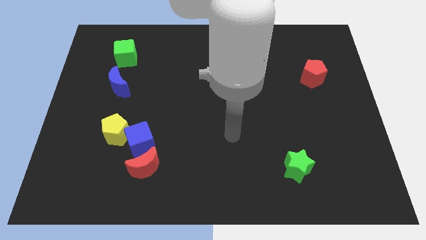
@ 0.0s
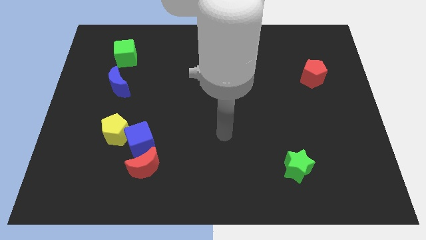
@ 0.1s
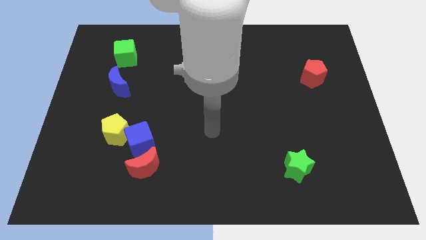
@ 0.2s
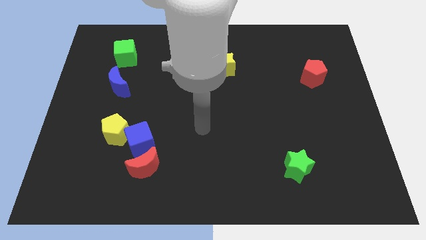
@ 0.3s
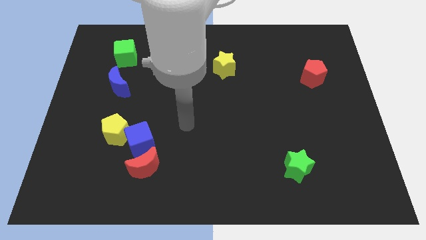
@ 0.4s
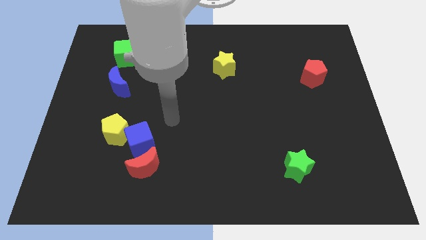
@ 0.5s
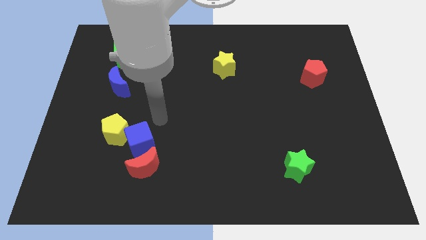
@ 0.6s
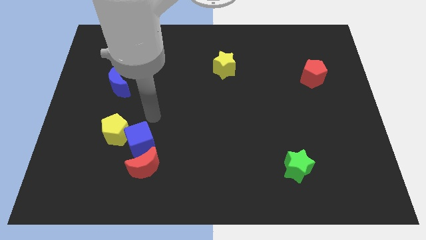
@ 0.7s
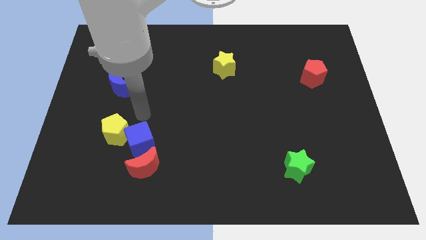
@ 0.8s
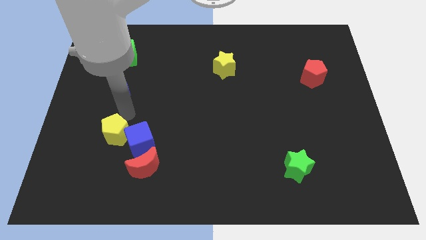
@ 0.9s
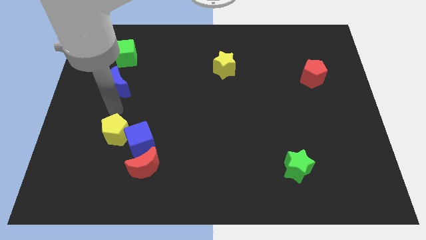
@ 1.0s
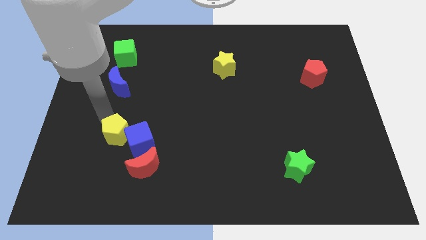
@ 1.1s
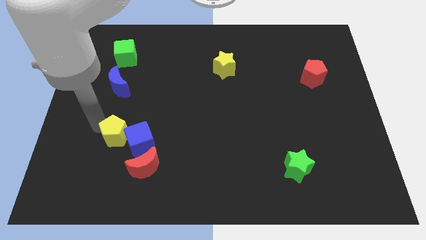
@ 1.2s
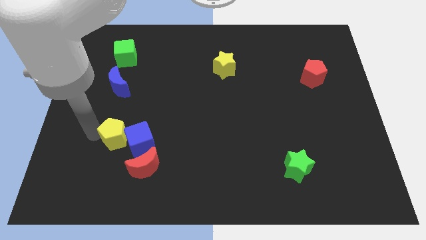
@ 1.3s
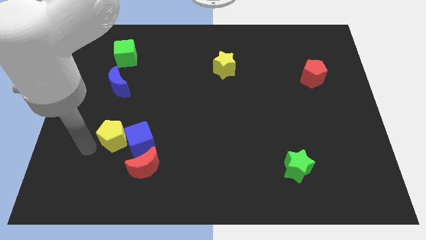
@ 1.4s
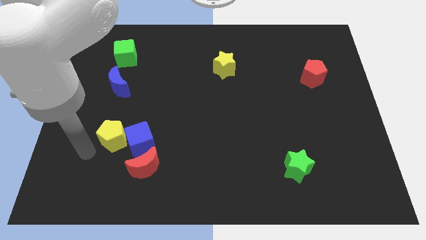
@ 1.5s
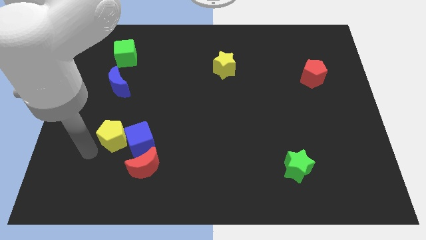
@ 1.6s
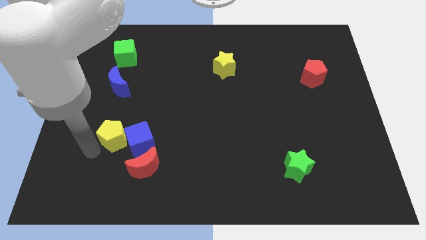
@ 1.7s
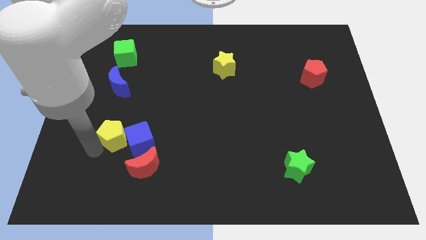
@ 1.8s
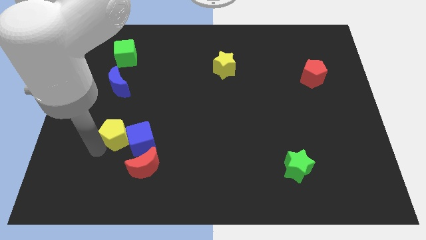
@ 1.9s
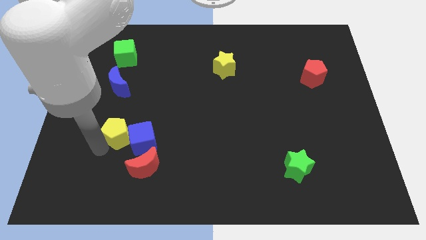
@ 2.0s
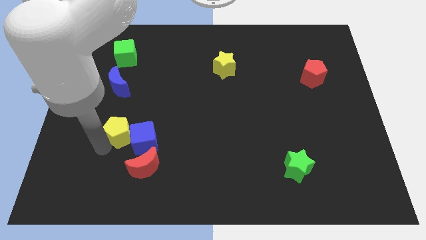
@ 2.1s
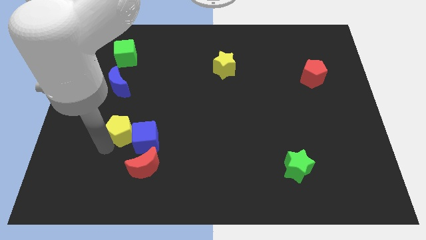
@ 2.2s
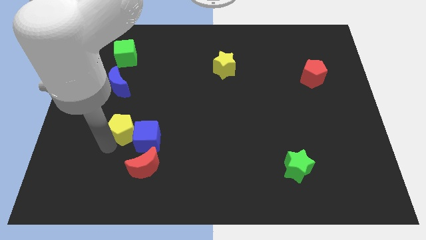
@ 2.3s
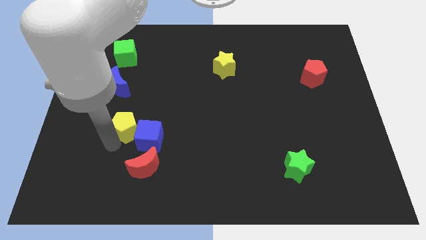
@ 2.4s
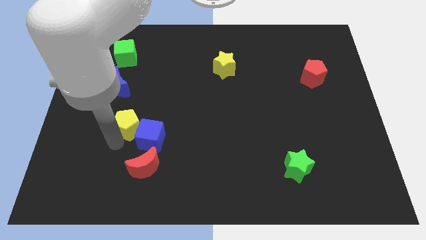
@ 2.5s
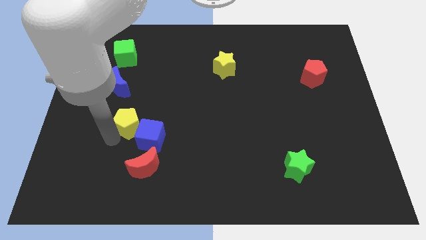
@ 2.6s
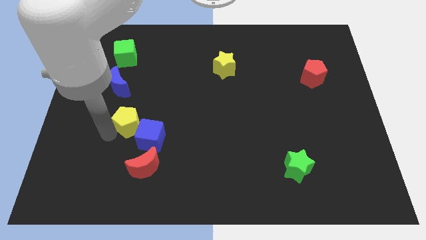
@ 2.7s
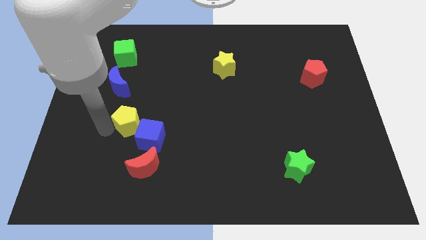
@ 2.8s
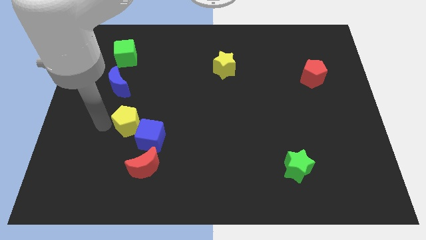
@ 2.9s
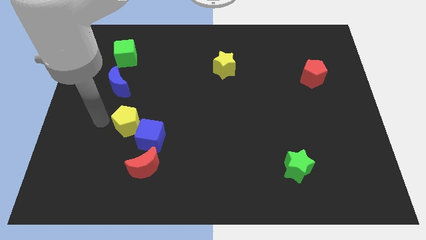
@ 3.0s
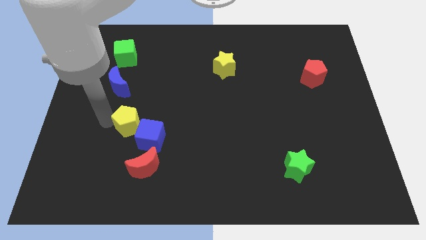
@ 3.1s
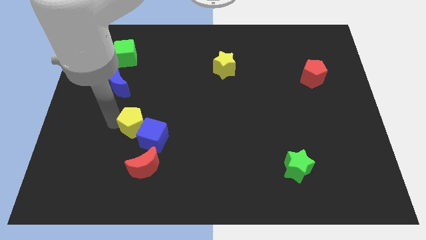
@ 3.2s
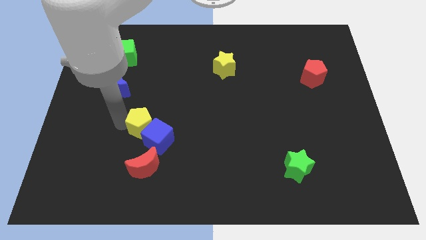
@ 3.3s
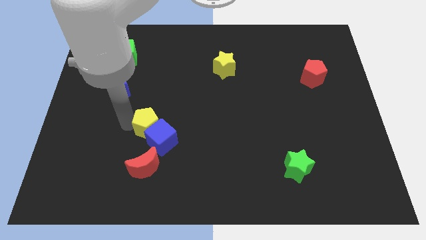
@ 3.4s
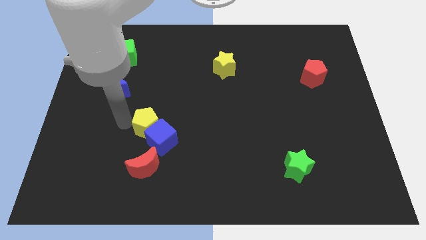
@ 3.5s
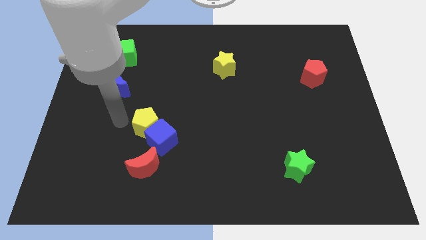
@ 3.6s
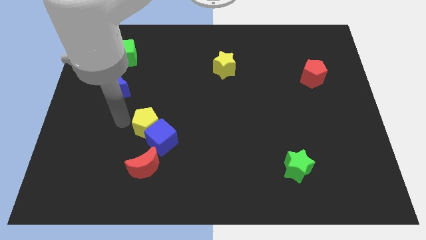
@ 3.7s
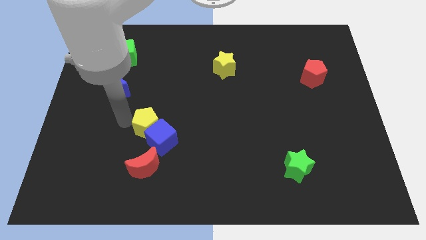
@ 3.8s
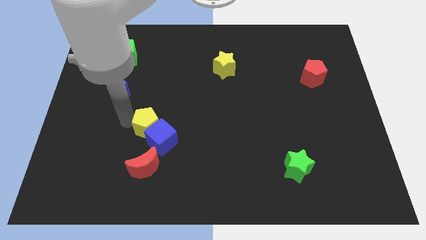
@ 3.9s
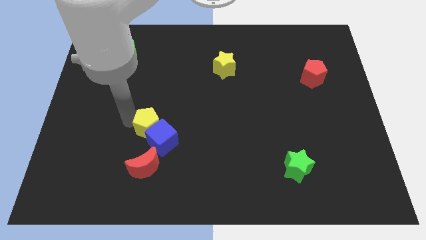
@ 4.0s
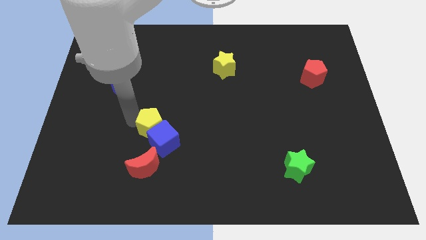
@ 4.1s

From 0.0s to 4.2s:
move the yellow pentagon somewhat right

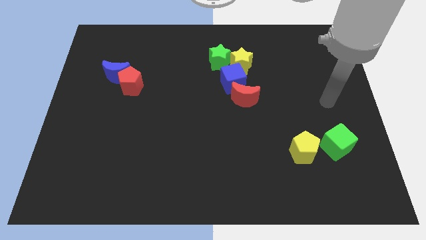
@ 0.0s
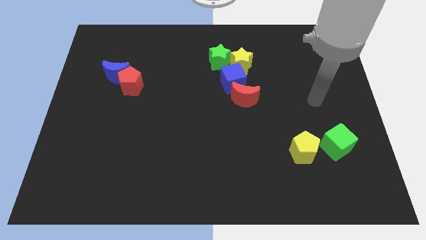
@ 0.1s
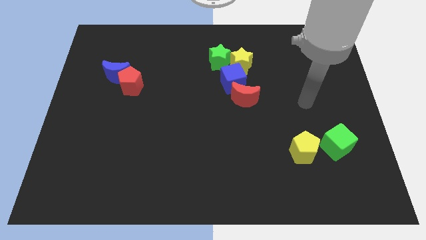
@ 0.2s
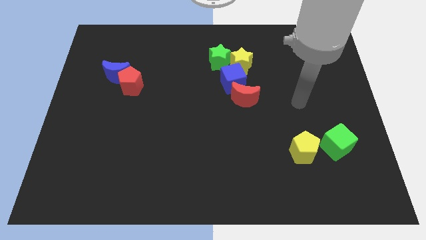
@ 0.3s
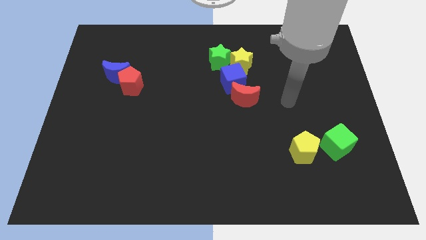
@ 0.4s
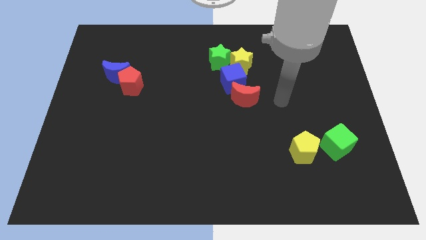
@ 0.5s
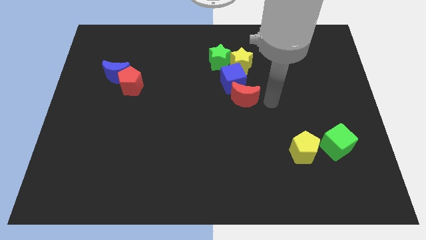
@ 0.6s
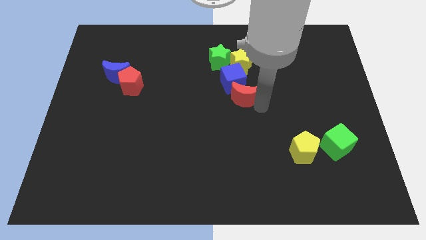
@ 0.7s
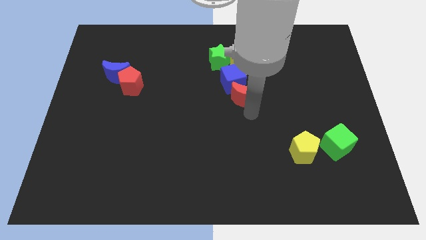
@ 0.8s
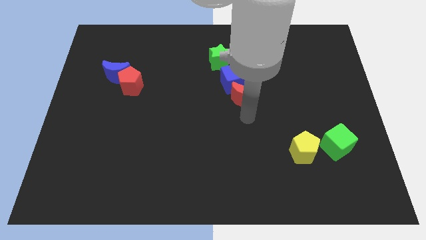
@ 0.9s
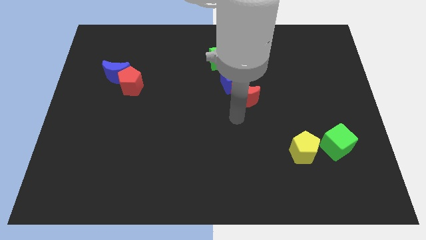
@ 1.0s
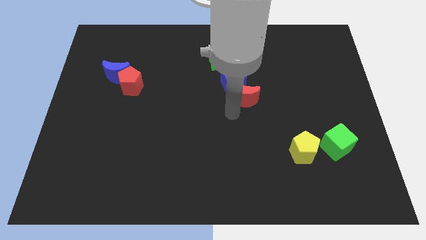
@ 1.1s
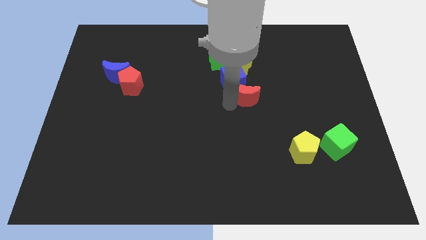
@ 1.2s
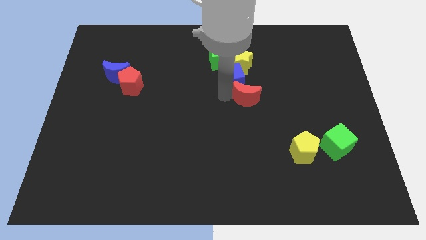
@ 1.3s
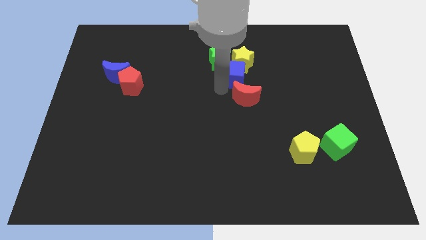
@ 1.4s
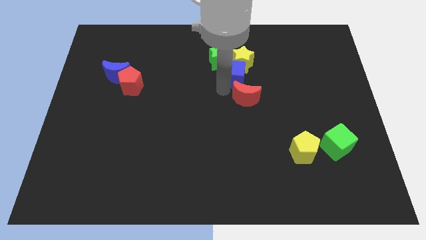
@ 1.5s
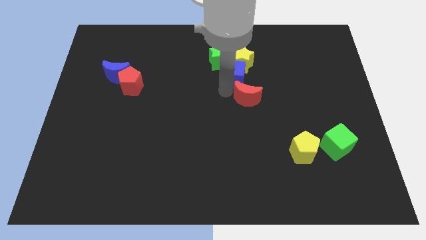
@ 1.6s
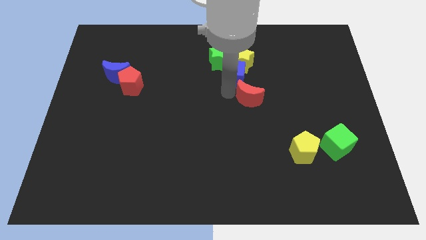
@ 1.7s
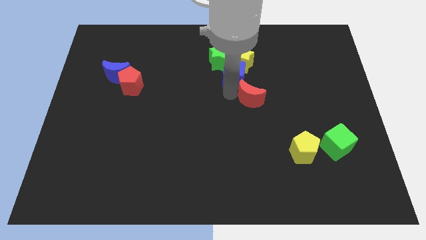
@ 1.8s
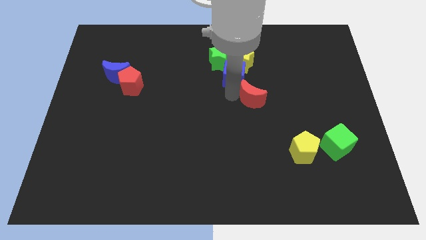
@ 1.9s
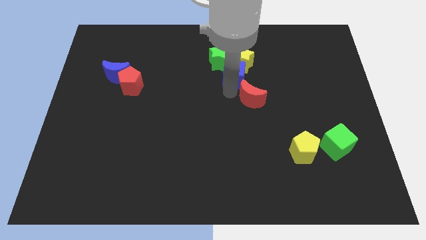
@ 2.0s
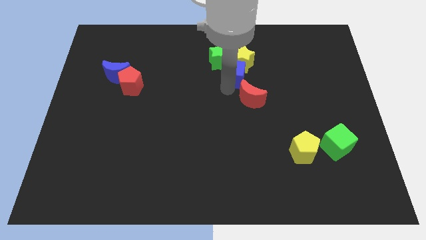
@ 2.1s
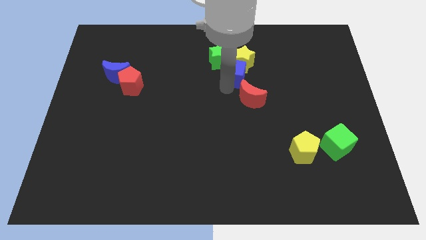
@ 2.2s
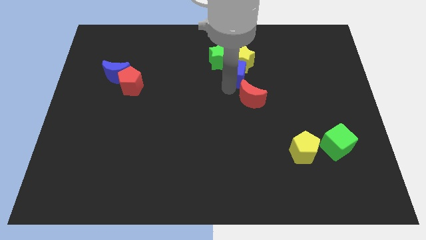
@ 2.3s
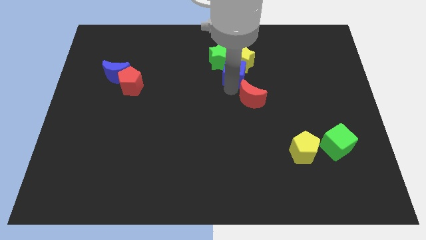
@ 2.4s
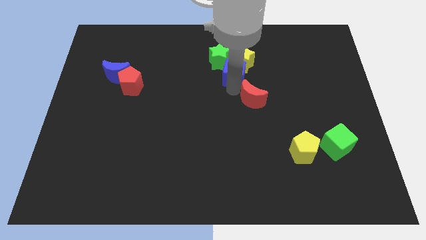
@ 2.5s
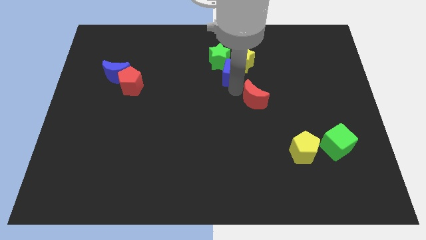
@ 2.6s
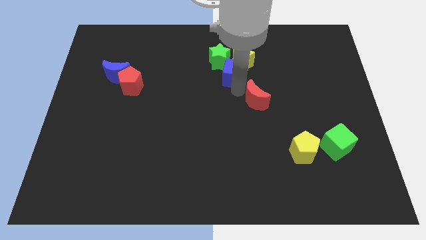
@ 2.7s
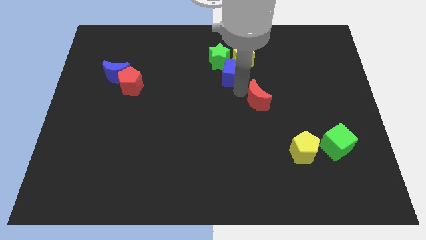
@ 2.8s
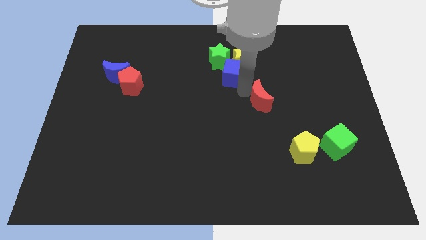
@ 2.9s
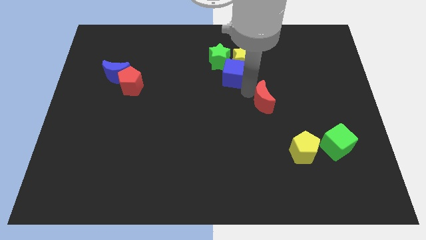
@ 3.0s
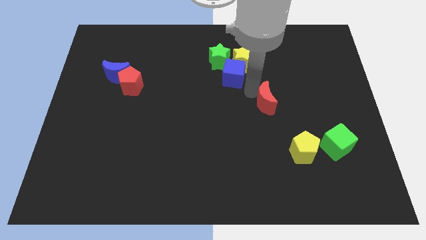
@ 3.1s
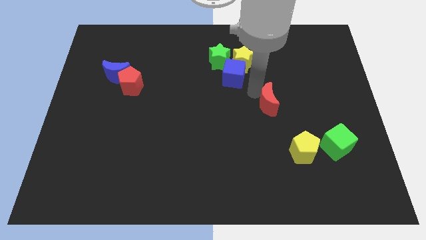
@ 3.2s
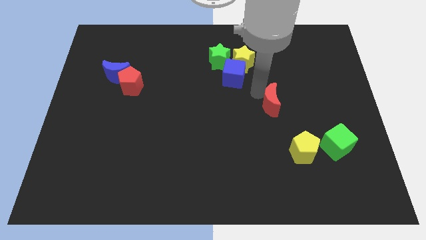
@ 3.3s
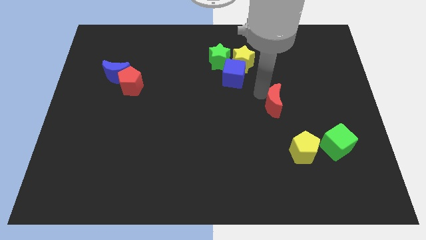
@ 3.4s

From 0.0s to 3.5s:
slide the red moon right slightly

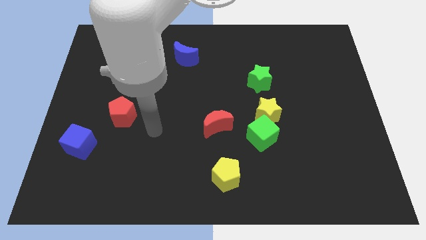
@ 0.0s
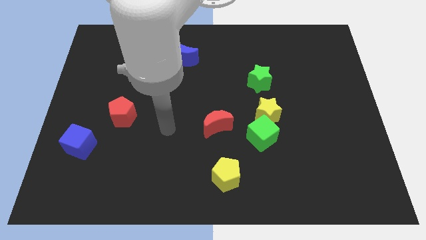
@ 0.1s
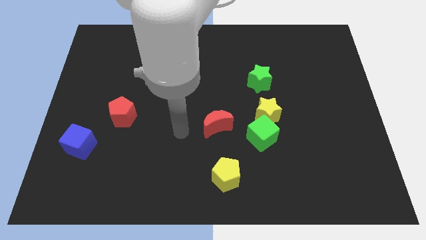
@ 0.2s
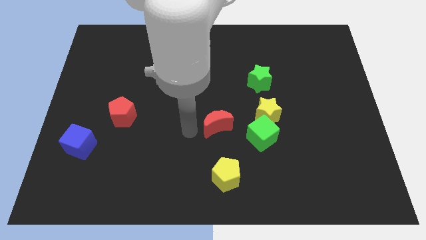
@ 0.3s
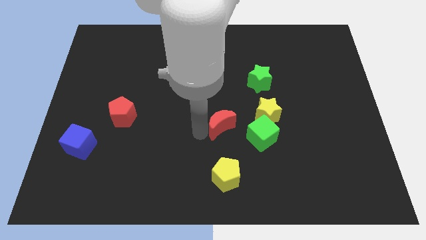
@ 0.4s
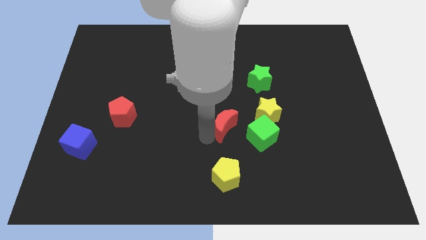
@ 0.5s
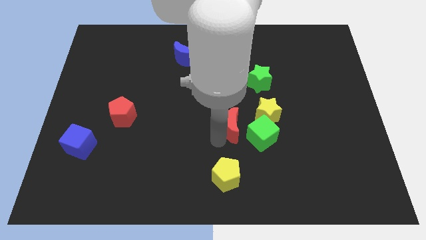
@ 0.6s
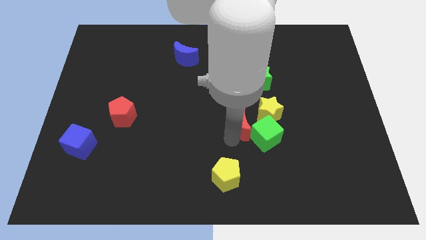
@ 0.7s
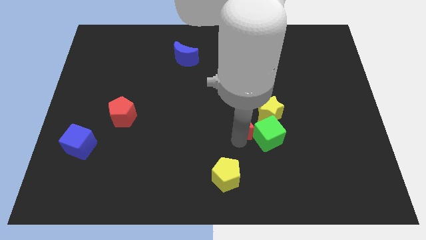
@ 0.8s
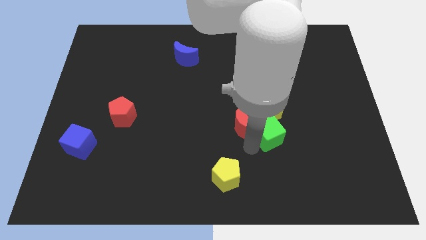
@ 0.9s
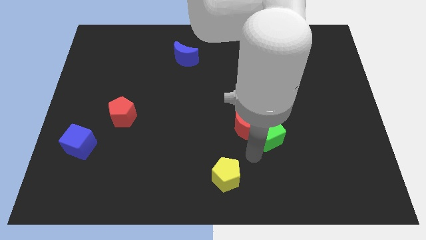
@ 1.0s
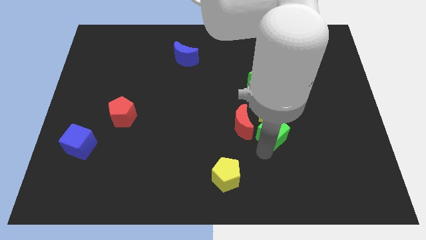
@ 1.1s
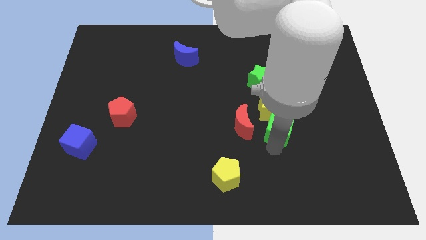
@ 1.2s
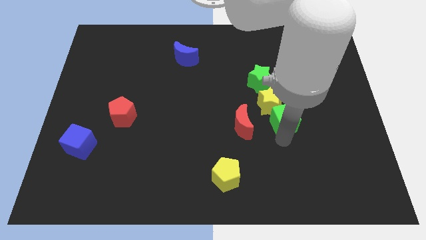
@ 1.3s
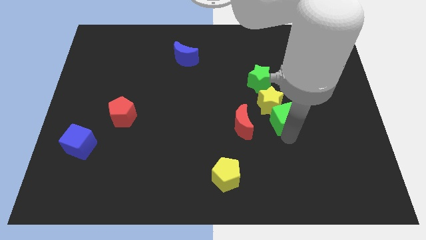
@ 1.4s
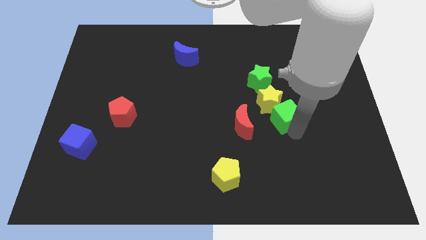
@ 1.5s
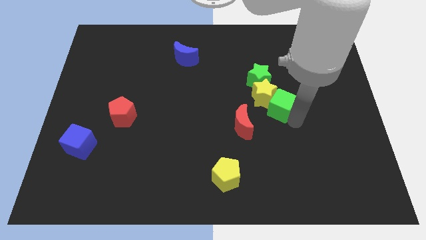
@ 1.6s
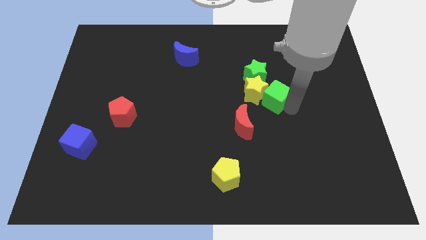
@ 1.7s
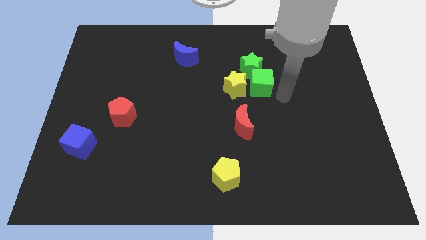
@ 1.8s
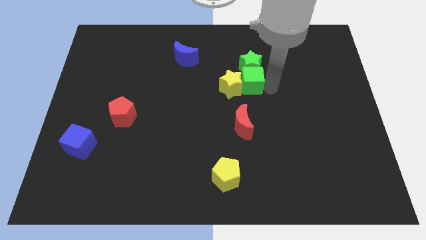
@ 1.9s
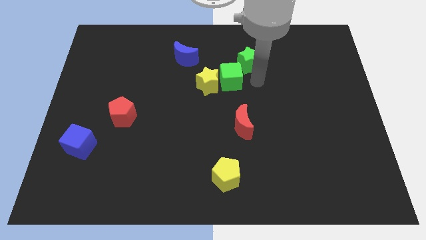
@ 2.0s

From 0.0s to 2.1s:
push the yellow star left a bit
